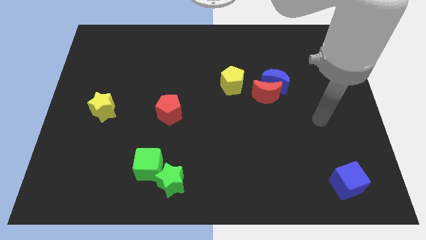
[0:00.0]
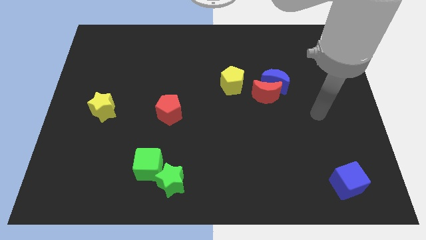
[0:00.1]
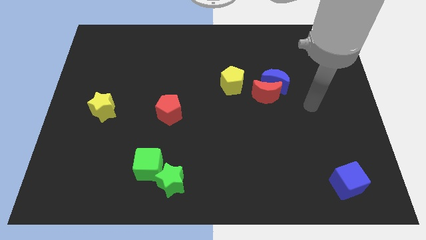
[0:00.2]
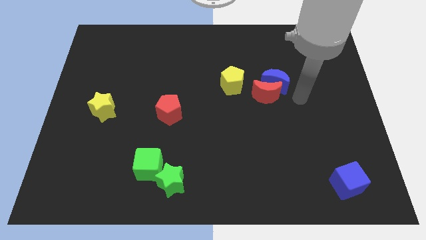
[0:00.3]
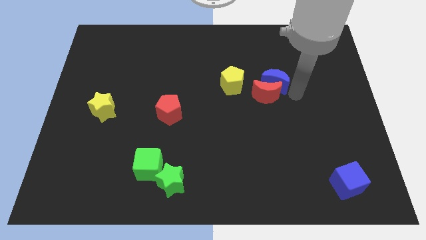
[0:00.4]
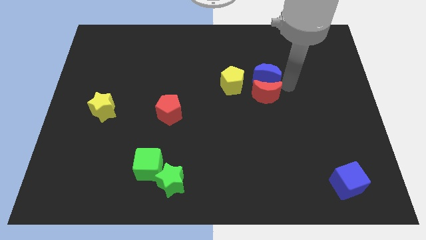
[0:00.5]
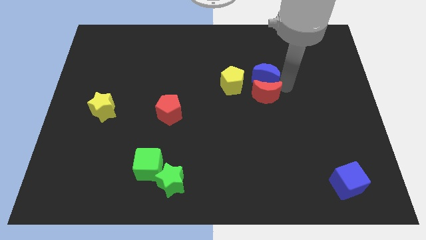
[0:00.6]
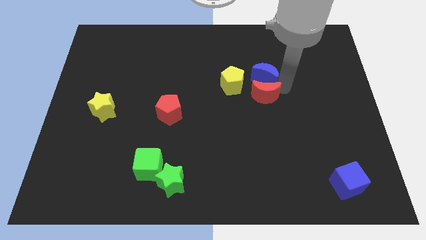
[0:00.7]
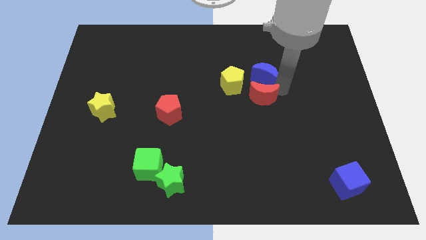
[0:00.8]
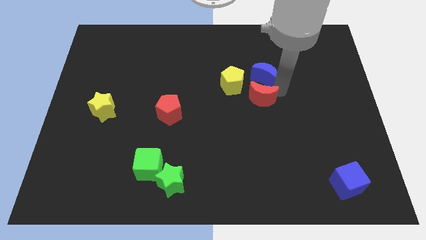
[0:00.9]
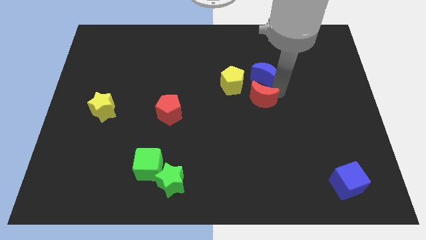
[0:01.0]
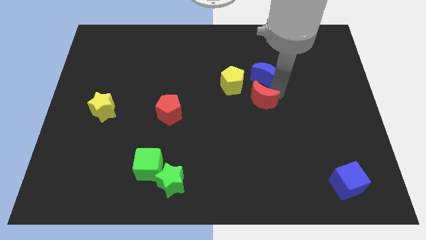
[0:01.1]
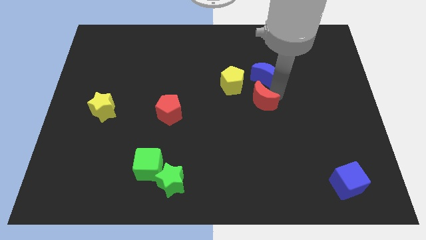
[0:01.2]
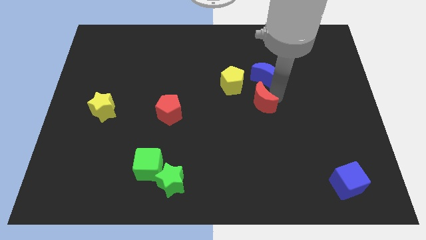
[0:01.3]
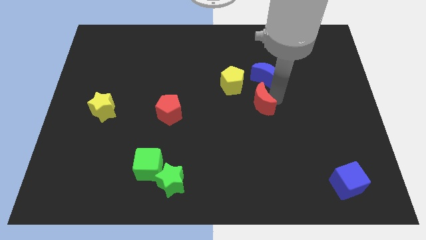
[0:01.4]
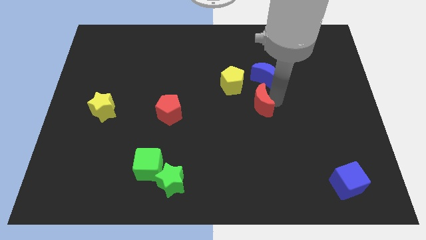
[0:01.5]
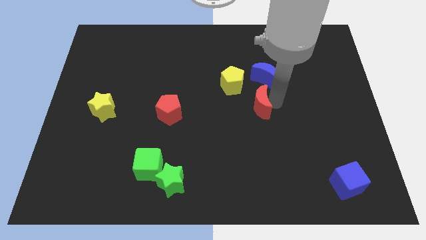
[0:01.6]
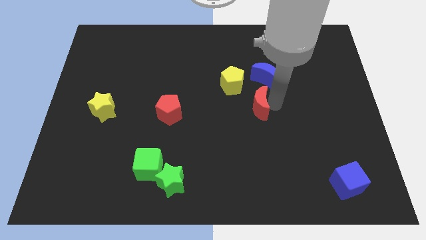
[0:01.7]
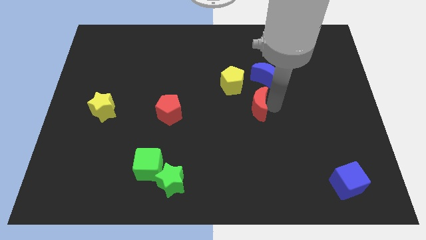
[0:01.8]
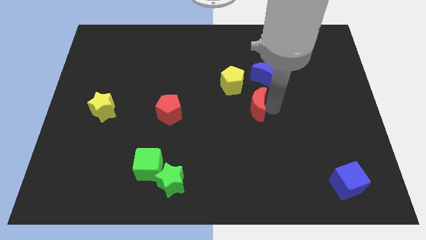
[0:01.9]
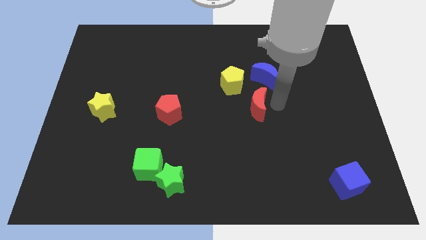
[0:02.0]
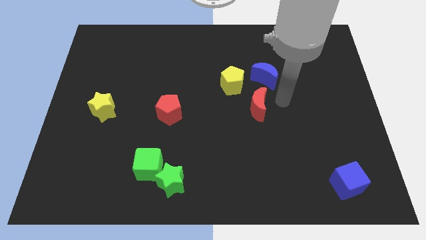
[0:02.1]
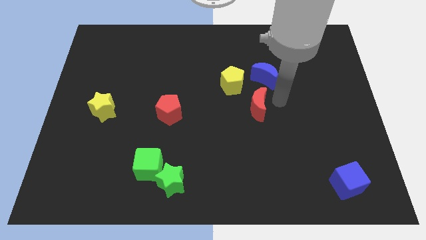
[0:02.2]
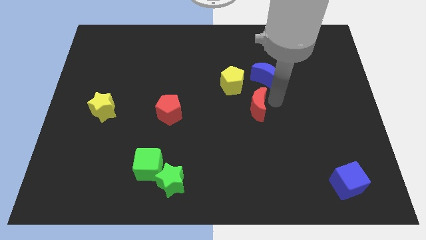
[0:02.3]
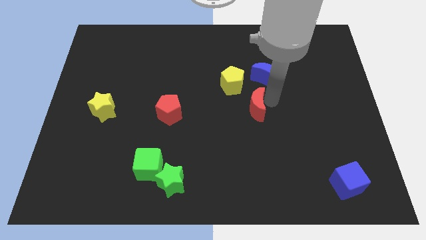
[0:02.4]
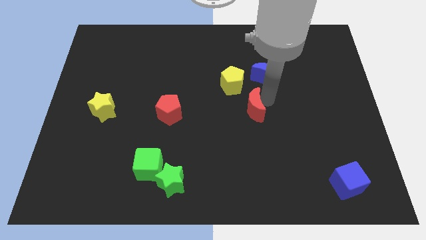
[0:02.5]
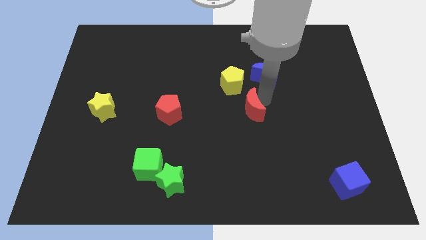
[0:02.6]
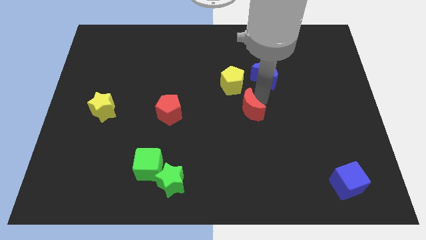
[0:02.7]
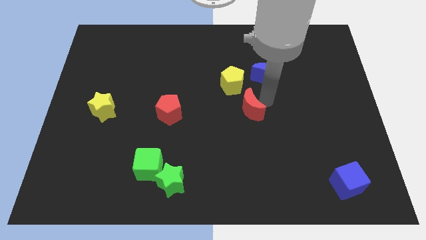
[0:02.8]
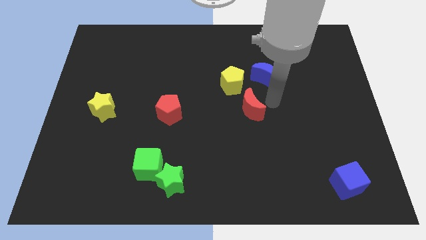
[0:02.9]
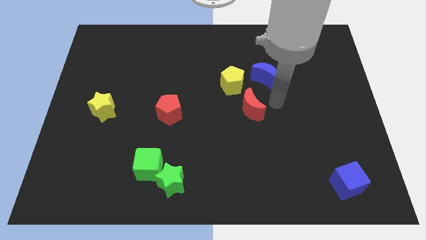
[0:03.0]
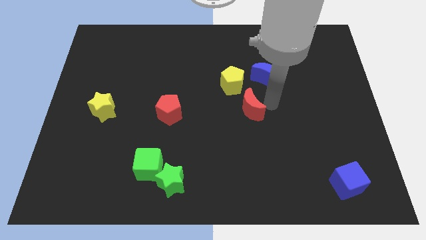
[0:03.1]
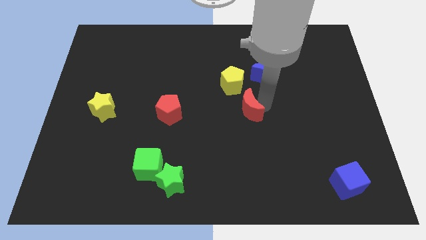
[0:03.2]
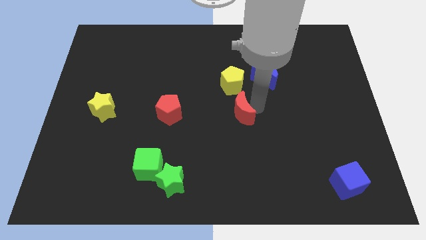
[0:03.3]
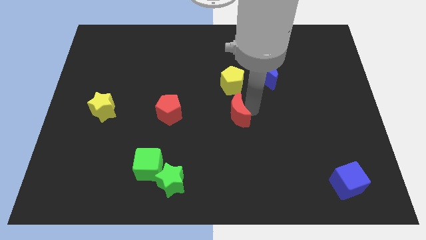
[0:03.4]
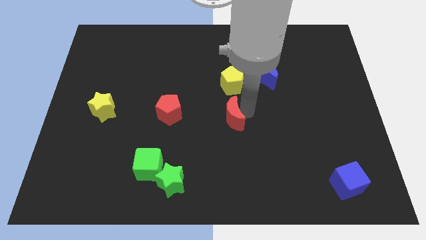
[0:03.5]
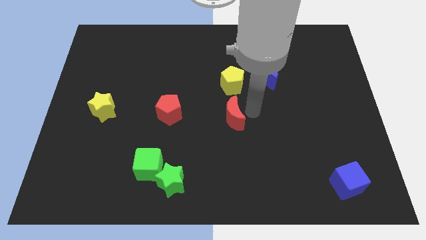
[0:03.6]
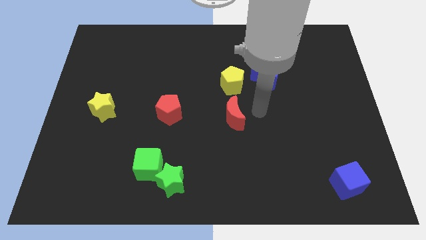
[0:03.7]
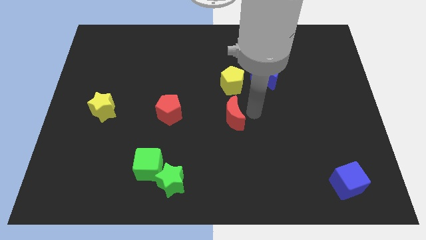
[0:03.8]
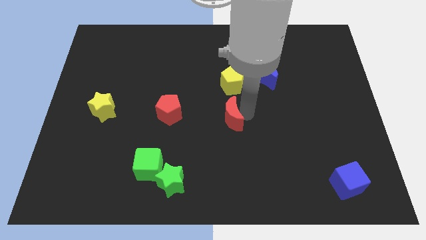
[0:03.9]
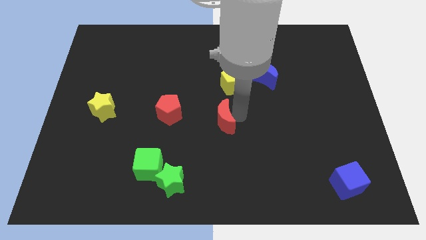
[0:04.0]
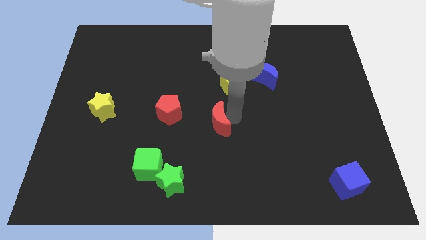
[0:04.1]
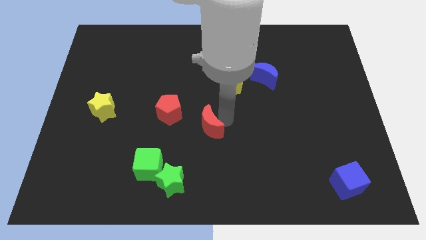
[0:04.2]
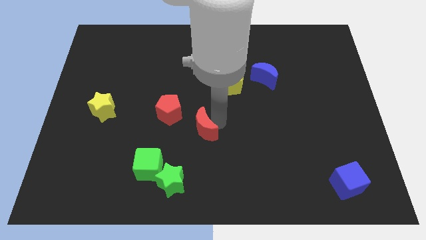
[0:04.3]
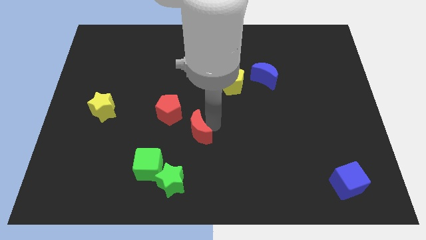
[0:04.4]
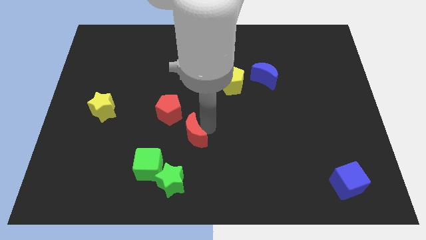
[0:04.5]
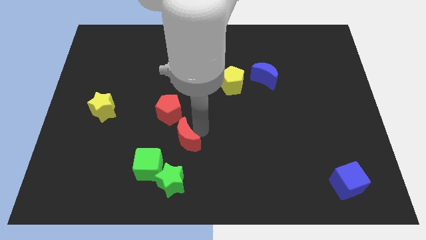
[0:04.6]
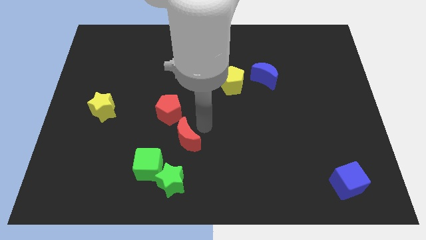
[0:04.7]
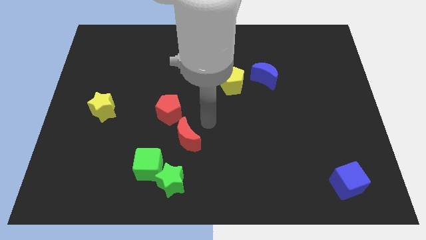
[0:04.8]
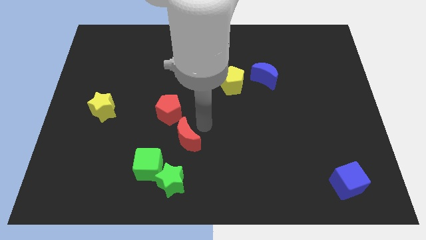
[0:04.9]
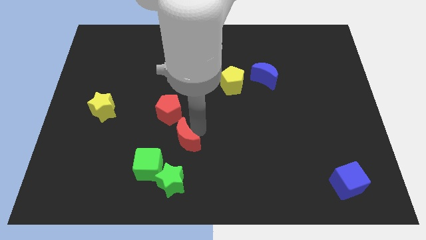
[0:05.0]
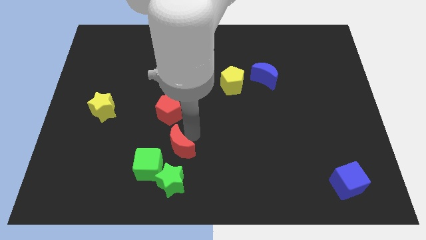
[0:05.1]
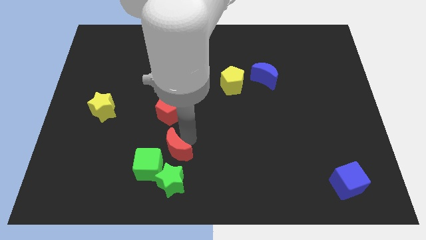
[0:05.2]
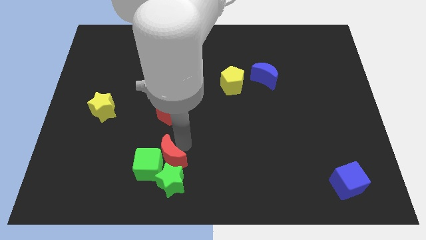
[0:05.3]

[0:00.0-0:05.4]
put the red moon towards the green cube

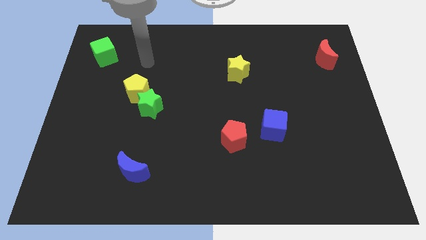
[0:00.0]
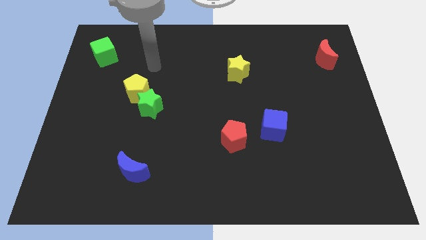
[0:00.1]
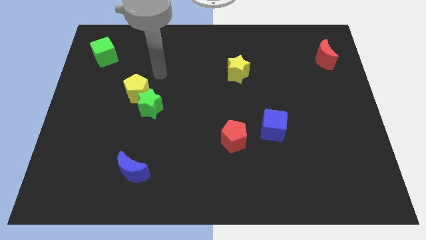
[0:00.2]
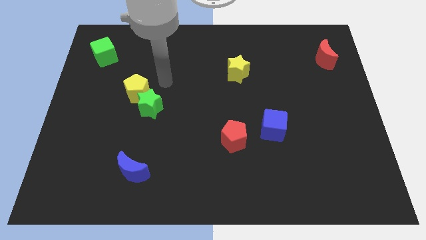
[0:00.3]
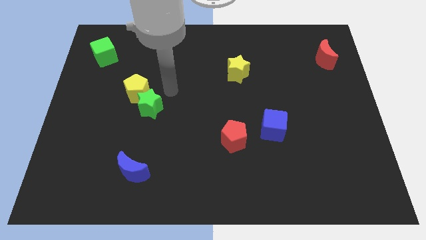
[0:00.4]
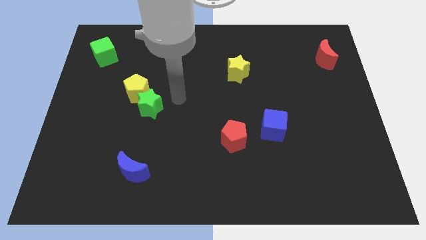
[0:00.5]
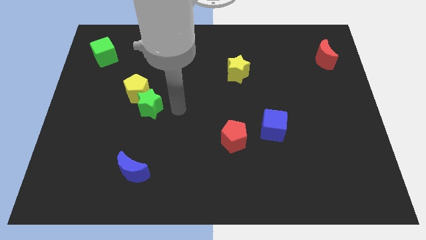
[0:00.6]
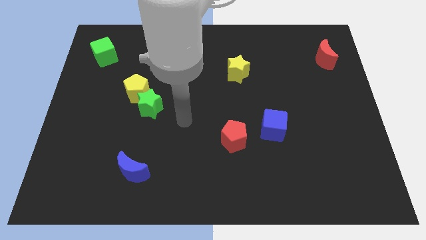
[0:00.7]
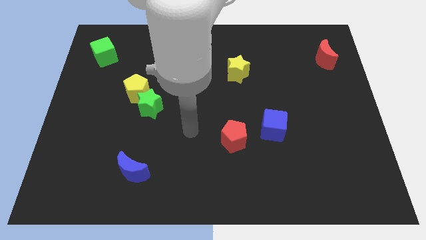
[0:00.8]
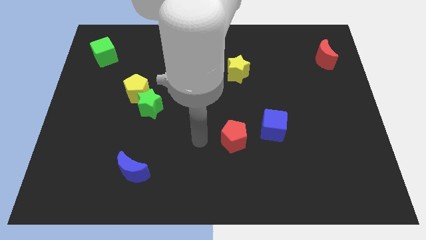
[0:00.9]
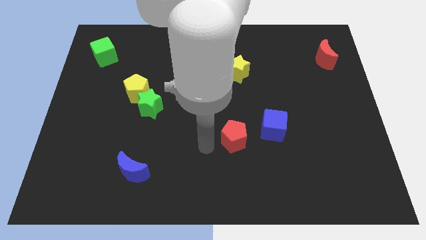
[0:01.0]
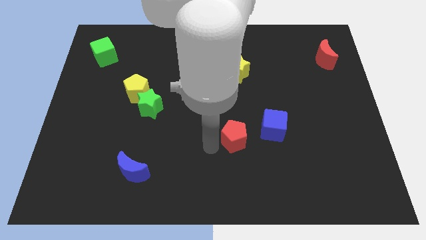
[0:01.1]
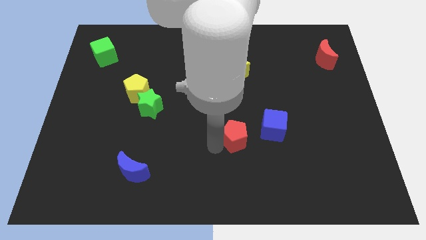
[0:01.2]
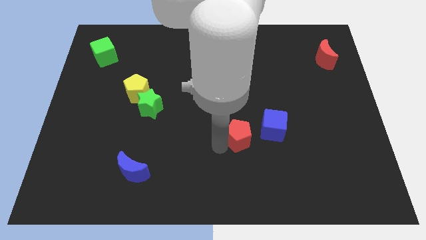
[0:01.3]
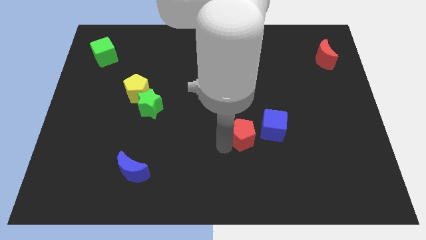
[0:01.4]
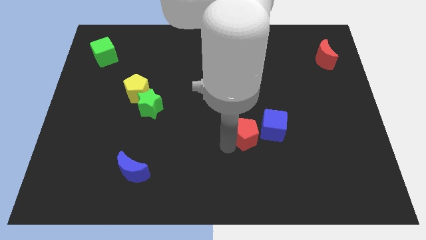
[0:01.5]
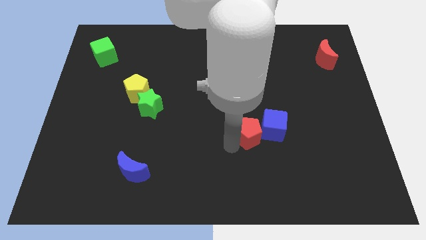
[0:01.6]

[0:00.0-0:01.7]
put the red pentagon towards the blue cube
